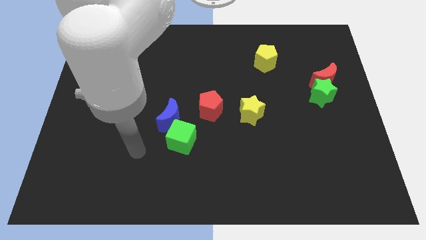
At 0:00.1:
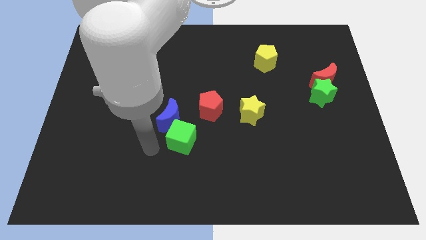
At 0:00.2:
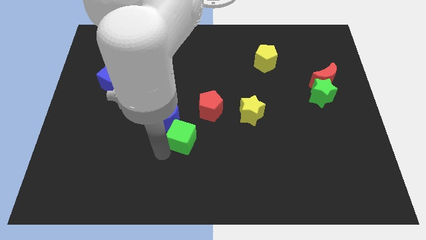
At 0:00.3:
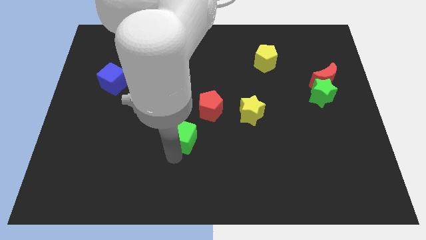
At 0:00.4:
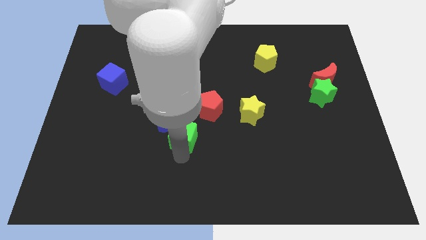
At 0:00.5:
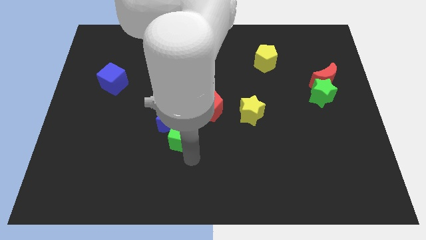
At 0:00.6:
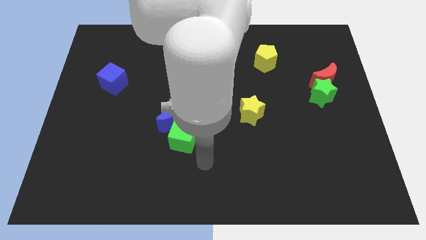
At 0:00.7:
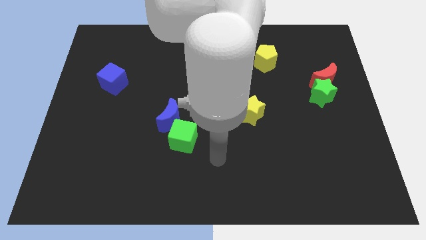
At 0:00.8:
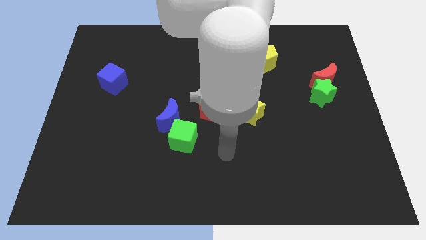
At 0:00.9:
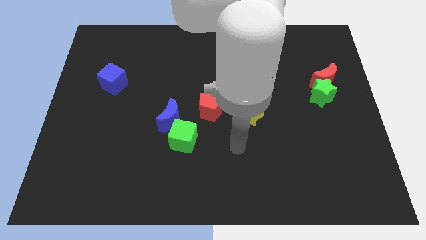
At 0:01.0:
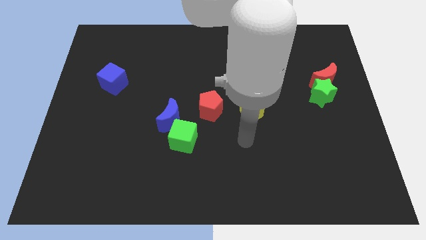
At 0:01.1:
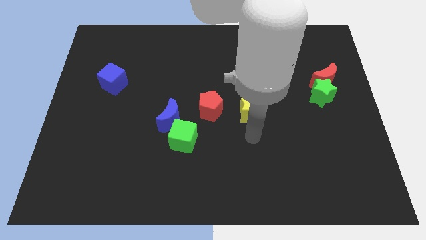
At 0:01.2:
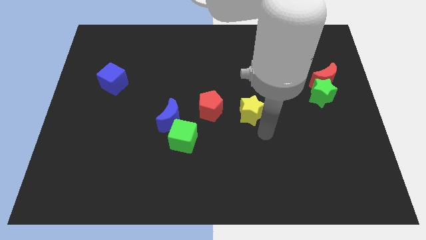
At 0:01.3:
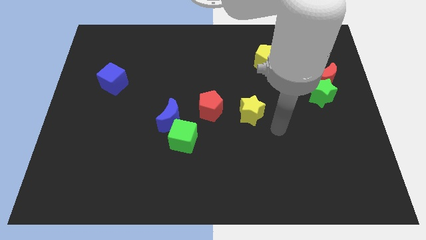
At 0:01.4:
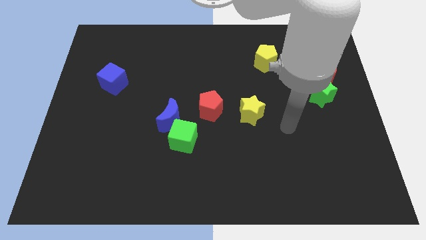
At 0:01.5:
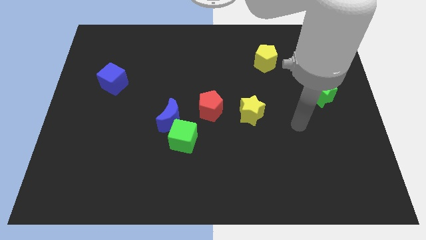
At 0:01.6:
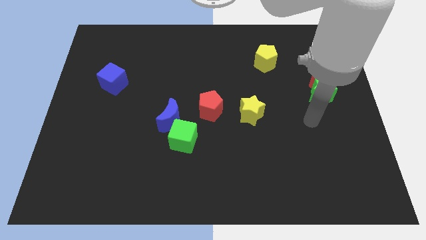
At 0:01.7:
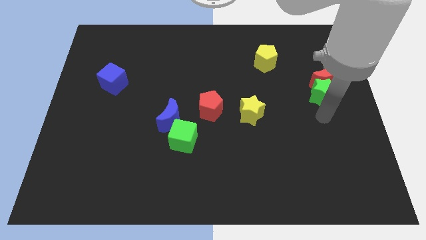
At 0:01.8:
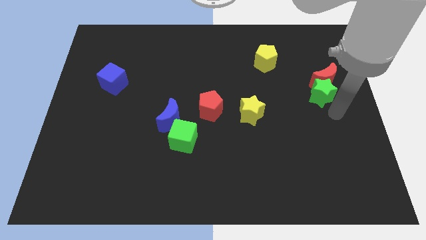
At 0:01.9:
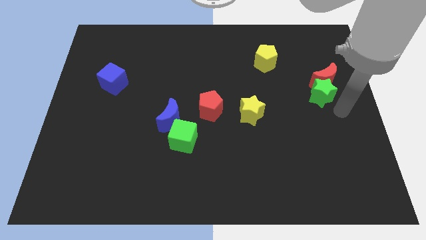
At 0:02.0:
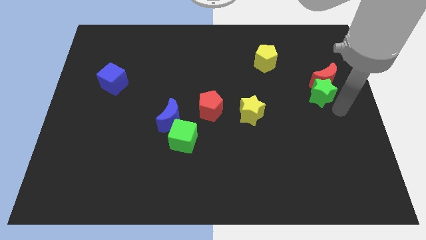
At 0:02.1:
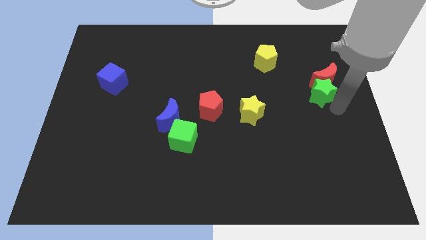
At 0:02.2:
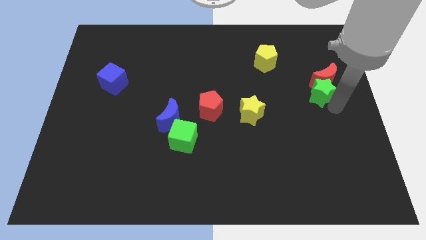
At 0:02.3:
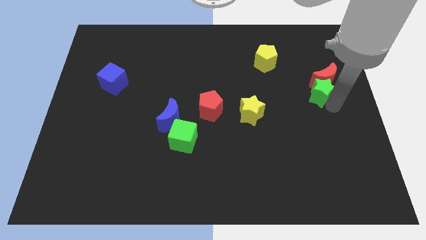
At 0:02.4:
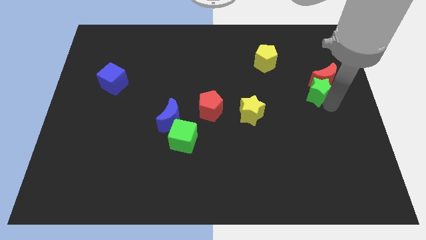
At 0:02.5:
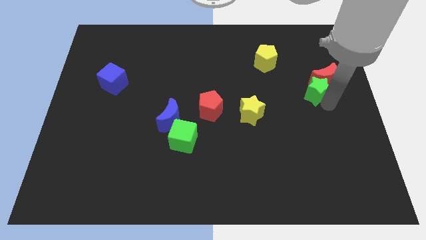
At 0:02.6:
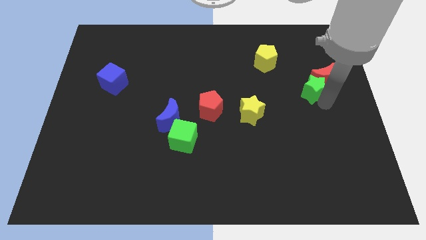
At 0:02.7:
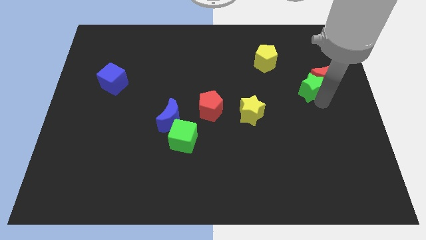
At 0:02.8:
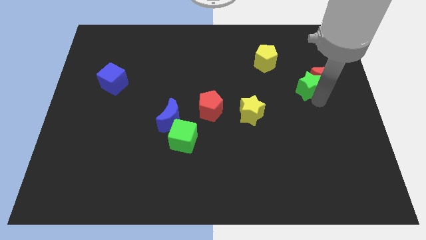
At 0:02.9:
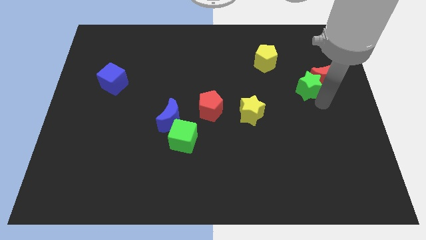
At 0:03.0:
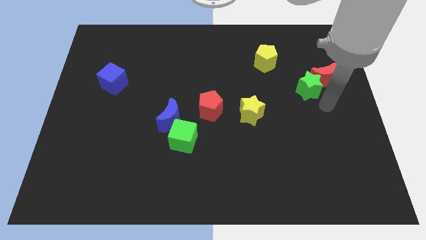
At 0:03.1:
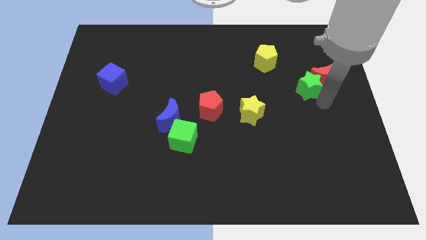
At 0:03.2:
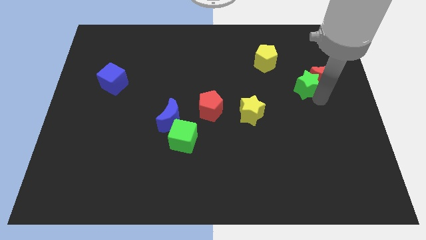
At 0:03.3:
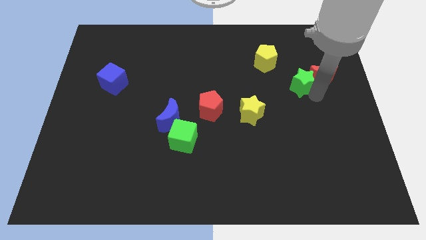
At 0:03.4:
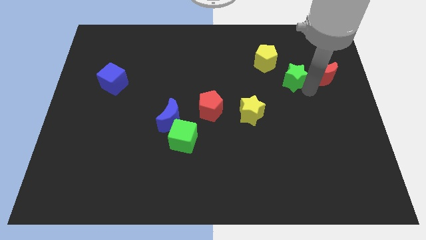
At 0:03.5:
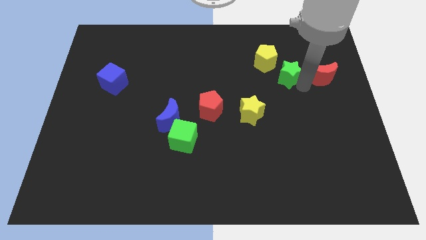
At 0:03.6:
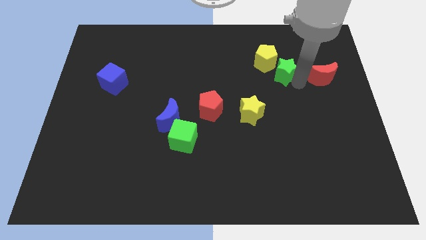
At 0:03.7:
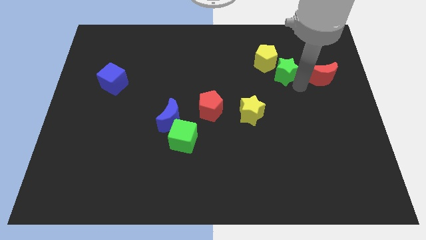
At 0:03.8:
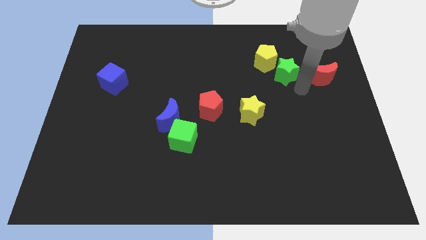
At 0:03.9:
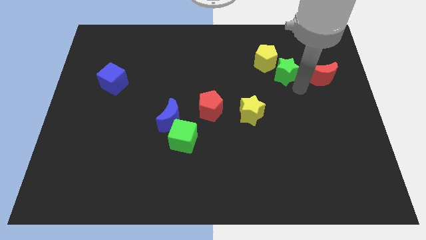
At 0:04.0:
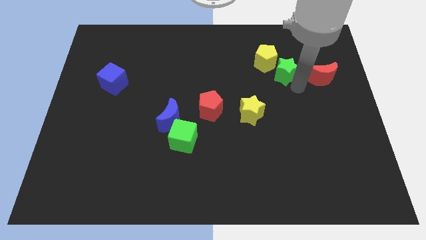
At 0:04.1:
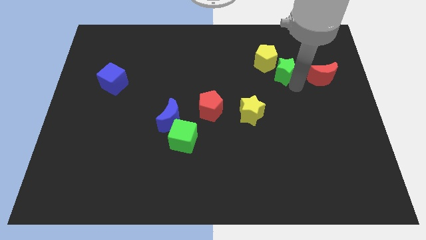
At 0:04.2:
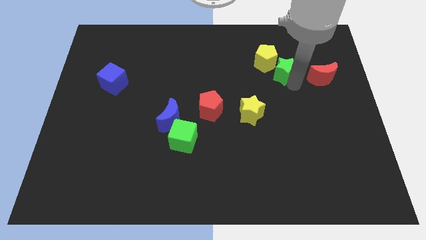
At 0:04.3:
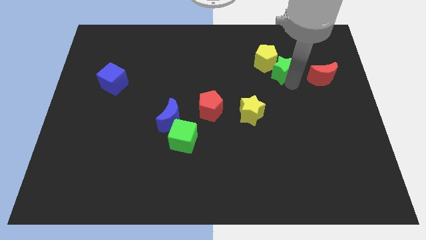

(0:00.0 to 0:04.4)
move the green star towards the yellow pentagon

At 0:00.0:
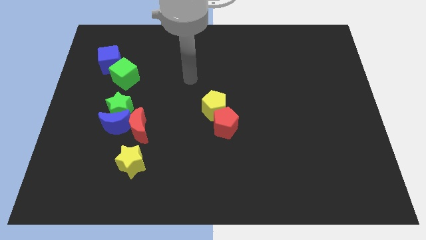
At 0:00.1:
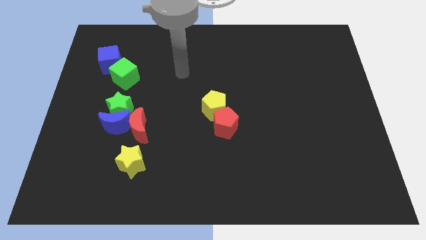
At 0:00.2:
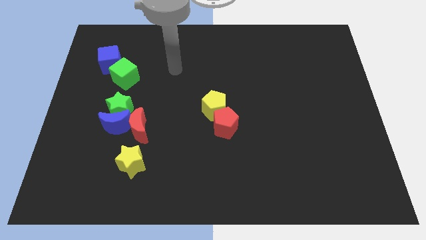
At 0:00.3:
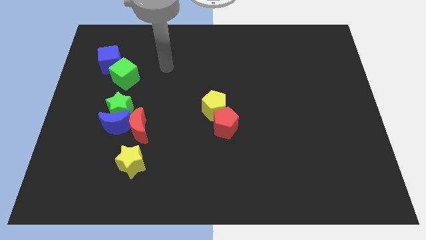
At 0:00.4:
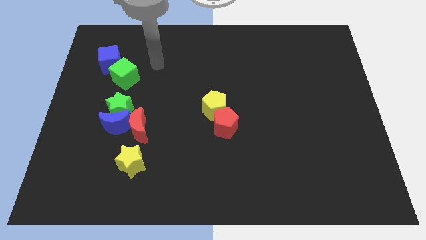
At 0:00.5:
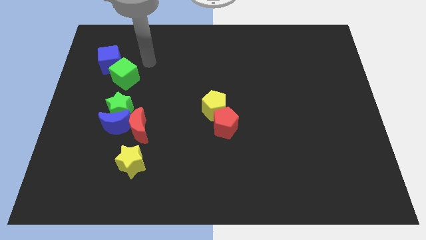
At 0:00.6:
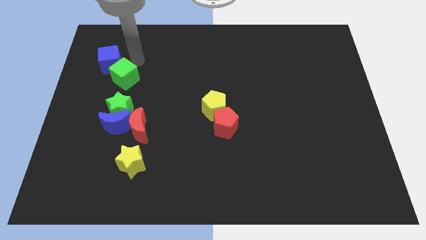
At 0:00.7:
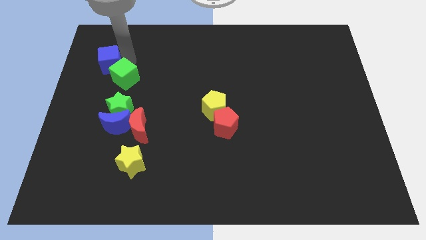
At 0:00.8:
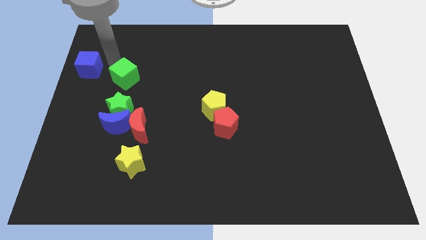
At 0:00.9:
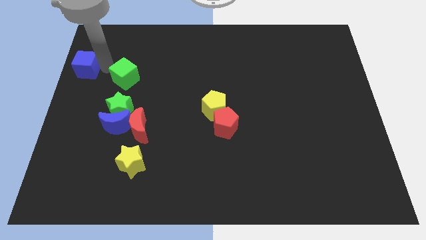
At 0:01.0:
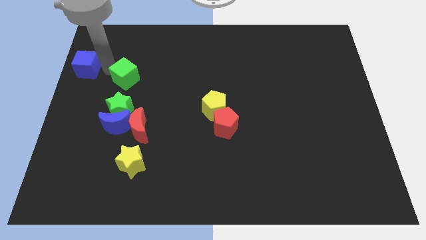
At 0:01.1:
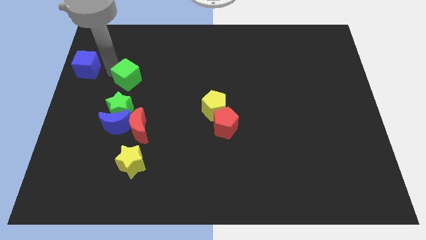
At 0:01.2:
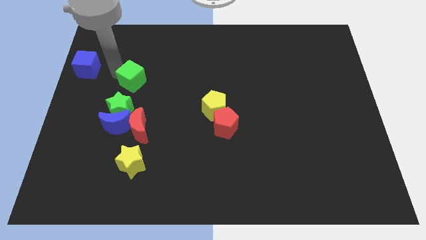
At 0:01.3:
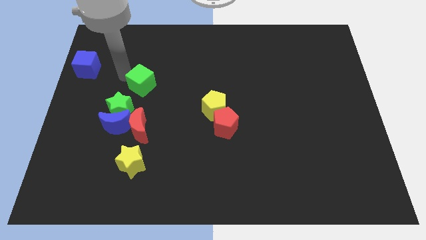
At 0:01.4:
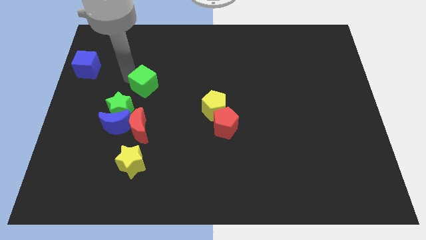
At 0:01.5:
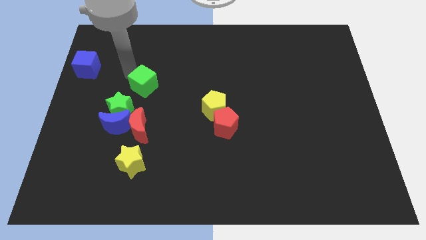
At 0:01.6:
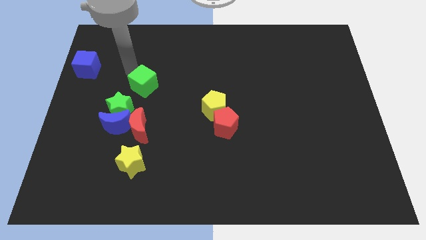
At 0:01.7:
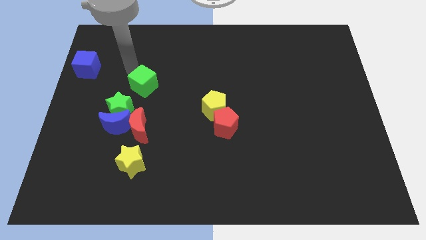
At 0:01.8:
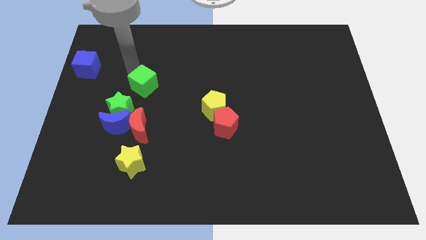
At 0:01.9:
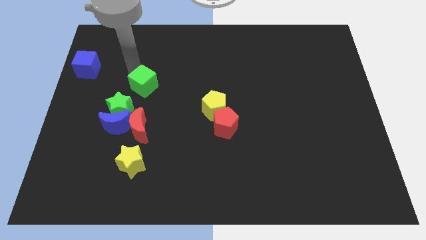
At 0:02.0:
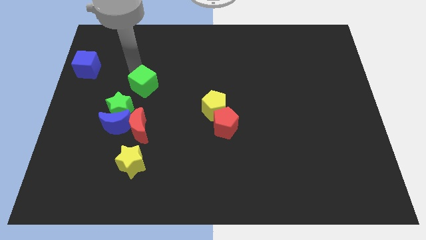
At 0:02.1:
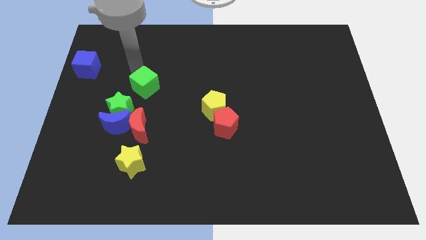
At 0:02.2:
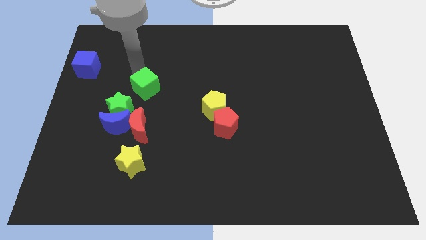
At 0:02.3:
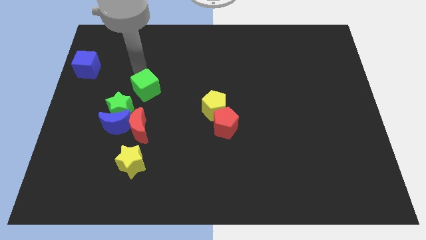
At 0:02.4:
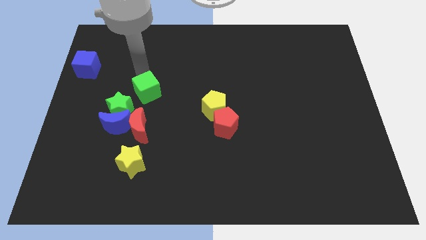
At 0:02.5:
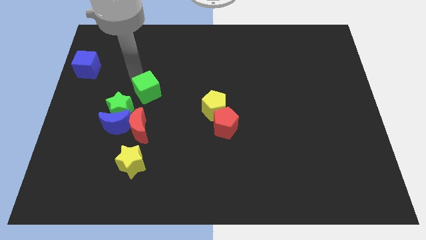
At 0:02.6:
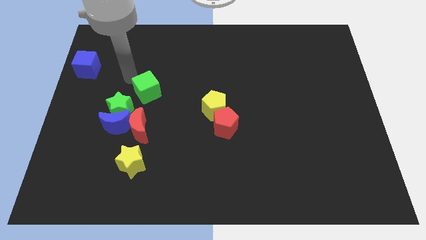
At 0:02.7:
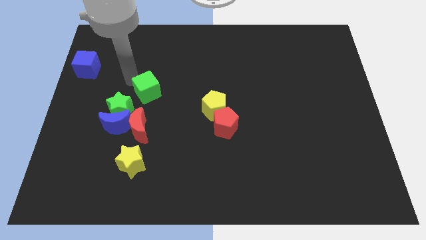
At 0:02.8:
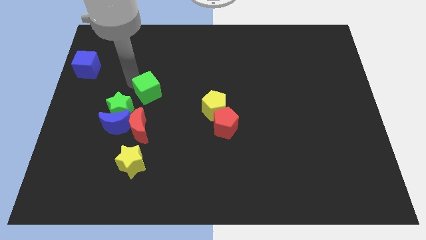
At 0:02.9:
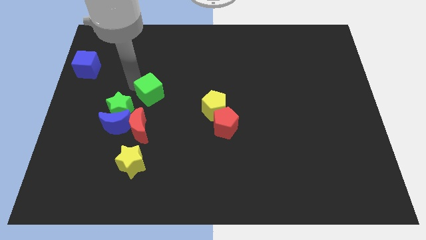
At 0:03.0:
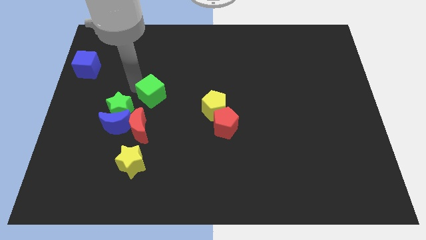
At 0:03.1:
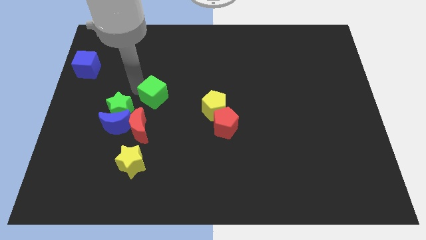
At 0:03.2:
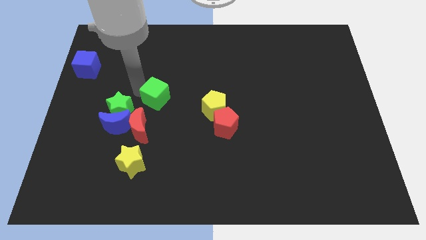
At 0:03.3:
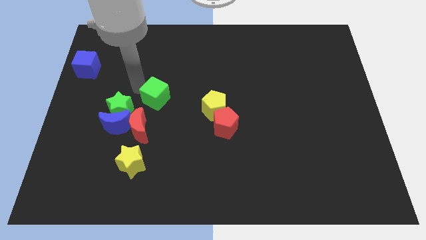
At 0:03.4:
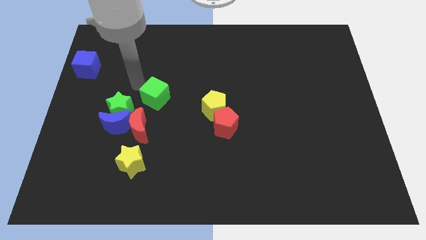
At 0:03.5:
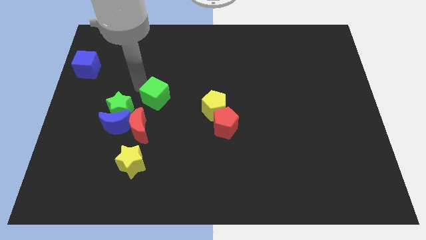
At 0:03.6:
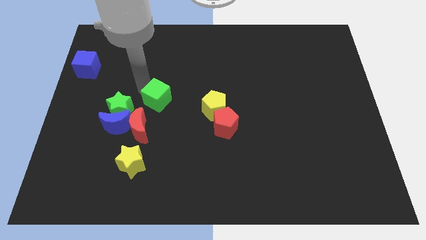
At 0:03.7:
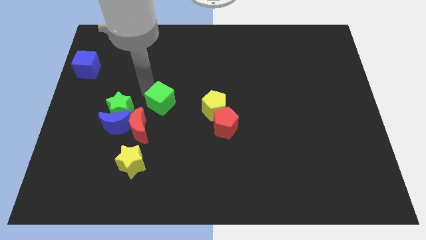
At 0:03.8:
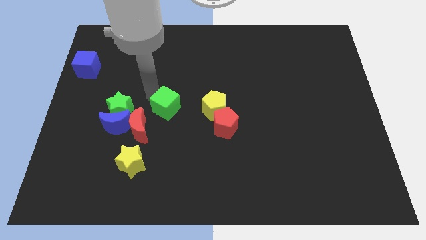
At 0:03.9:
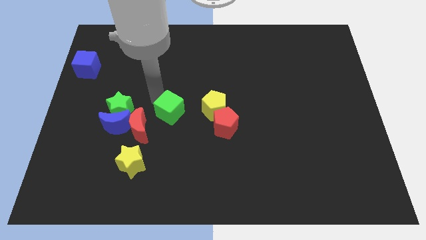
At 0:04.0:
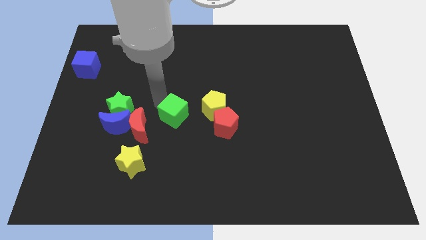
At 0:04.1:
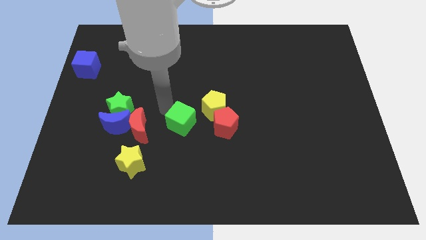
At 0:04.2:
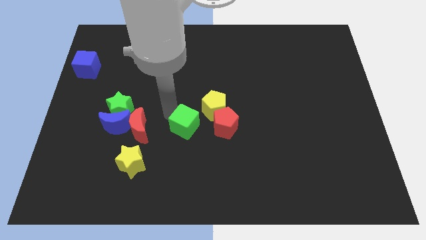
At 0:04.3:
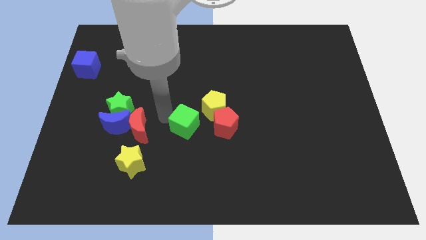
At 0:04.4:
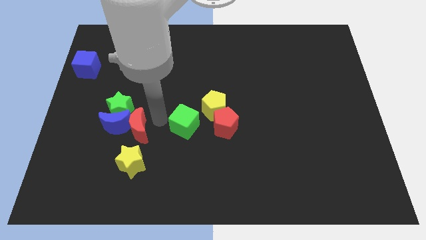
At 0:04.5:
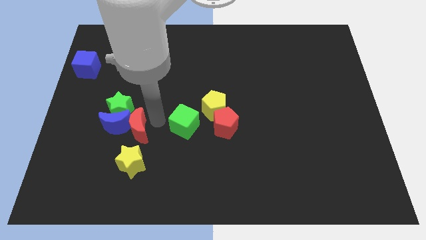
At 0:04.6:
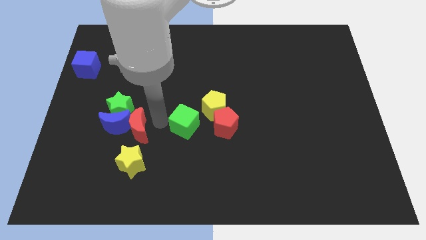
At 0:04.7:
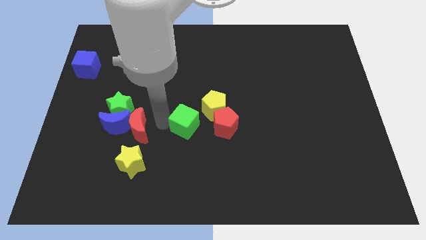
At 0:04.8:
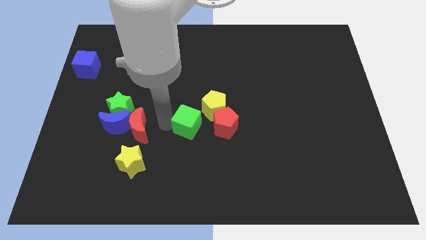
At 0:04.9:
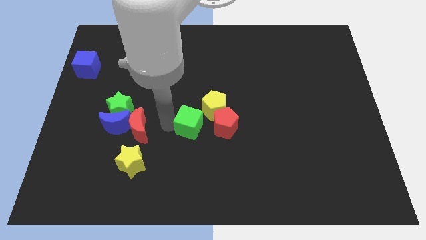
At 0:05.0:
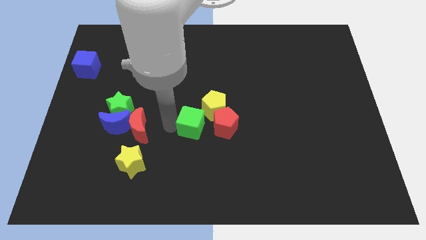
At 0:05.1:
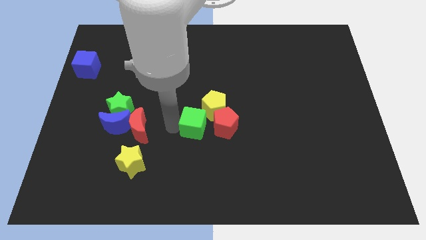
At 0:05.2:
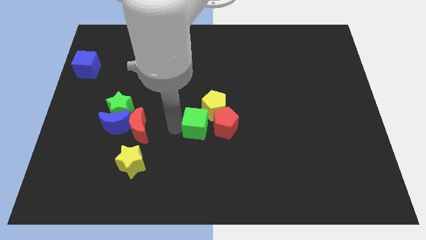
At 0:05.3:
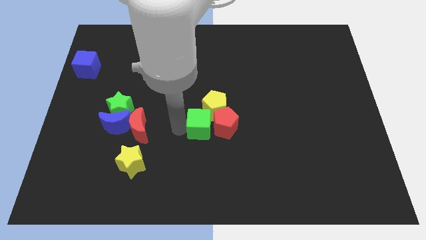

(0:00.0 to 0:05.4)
move the green cube close to the red pentagon
